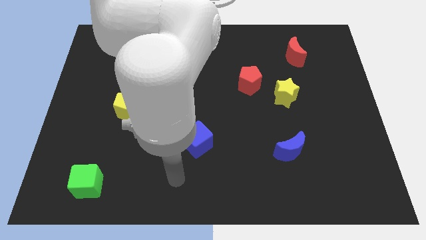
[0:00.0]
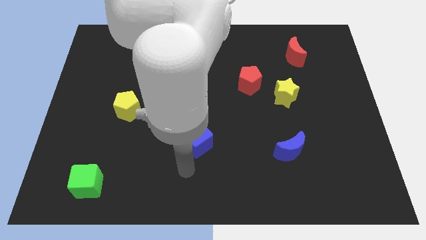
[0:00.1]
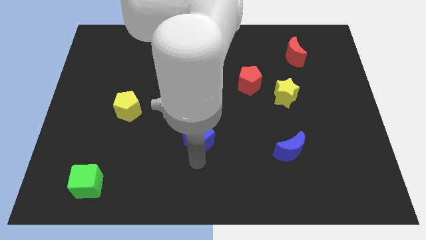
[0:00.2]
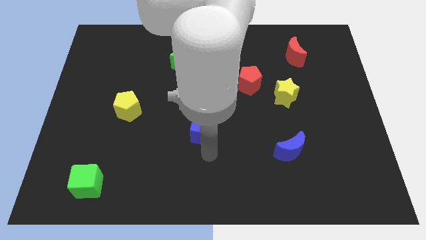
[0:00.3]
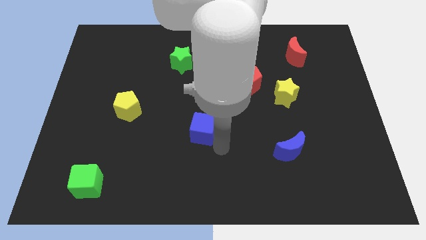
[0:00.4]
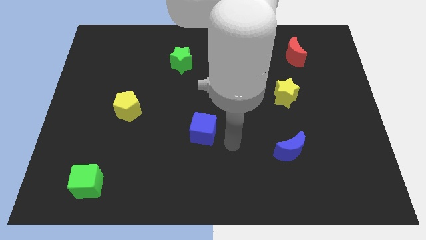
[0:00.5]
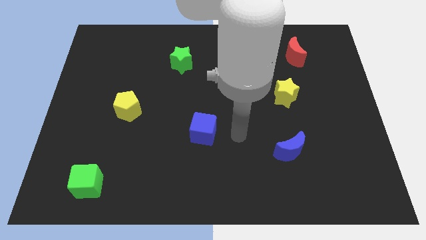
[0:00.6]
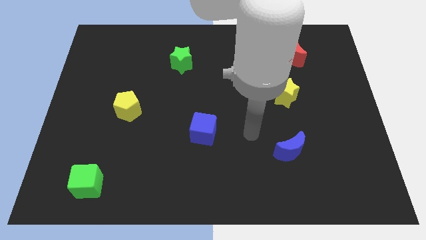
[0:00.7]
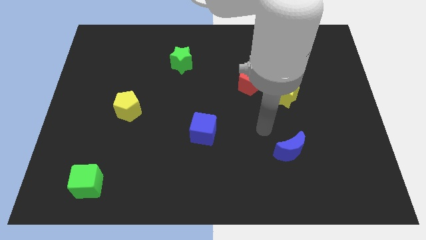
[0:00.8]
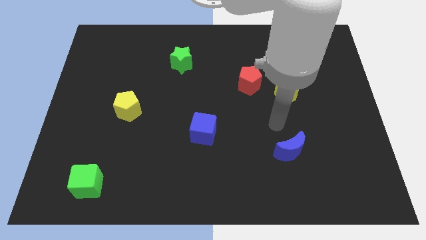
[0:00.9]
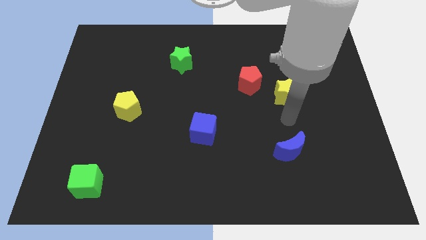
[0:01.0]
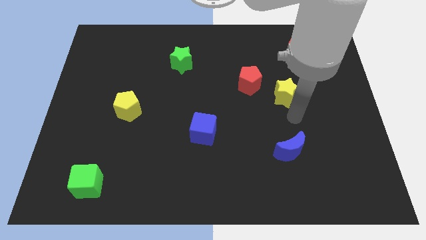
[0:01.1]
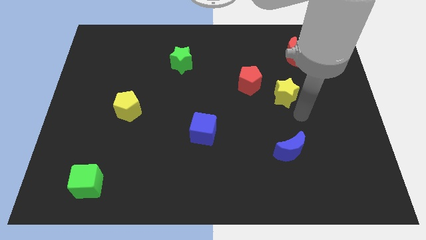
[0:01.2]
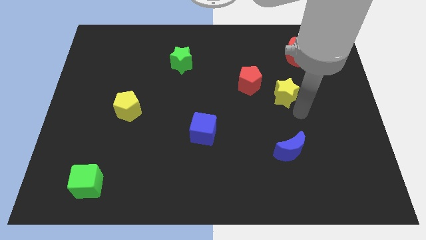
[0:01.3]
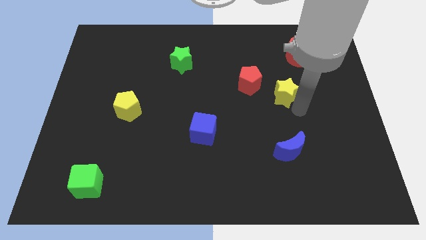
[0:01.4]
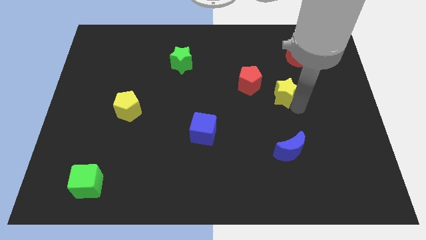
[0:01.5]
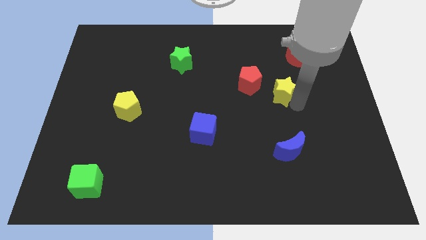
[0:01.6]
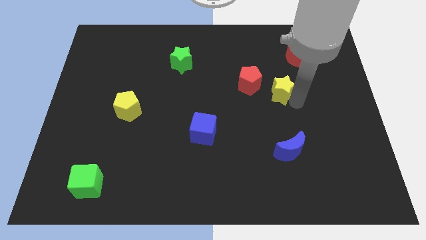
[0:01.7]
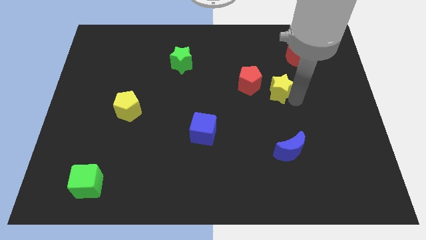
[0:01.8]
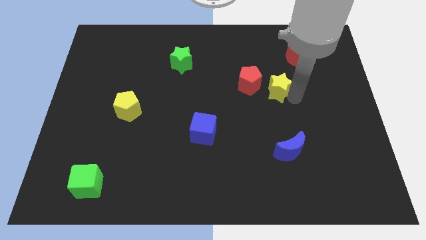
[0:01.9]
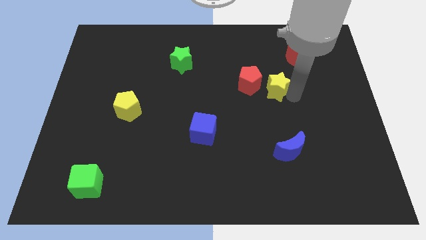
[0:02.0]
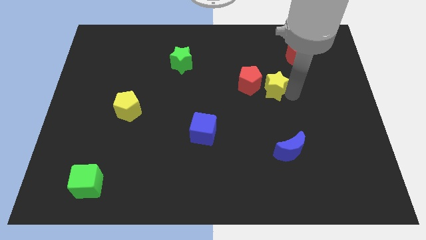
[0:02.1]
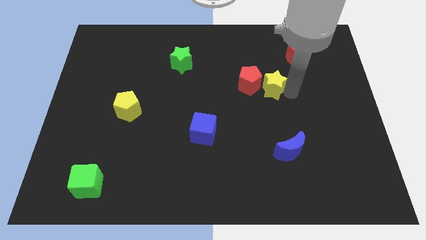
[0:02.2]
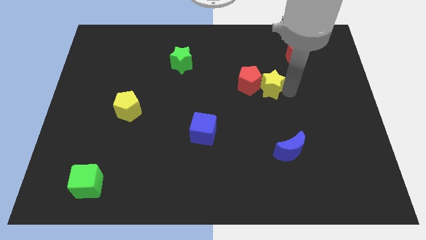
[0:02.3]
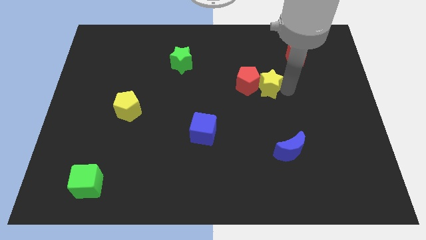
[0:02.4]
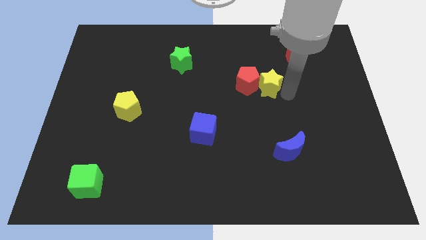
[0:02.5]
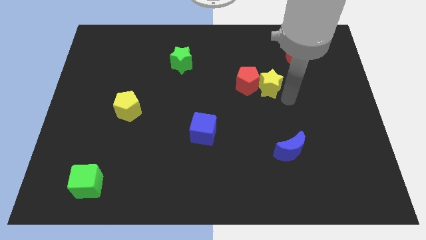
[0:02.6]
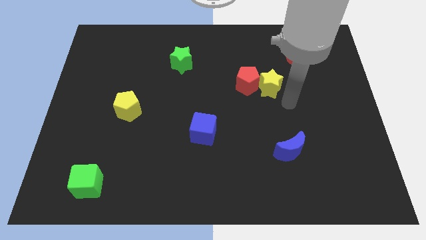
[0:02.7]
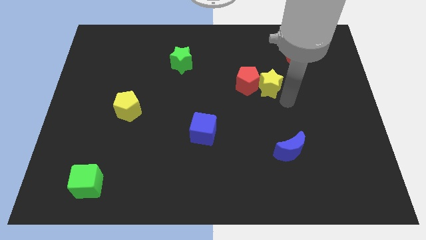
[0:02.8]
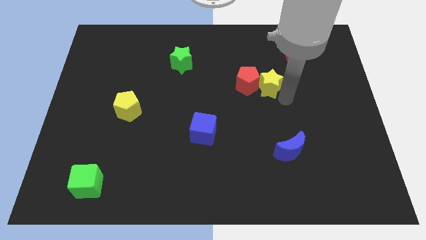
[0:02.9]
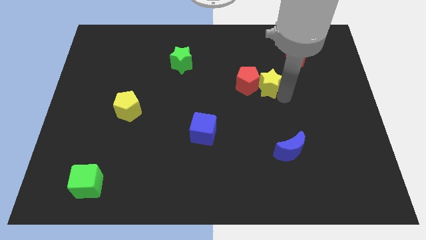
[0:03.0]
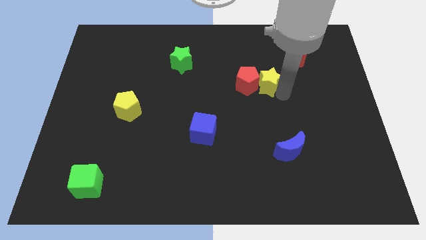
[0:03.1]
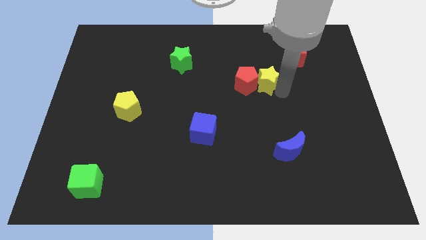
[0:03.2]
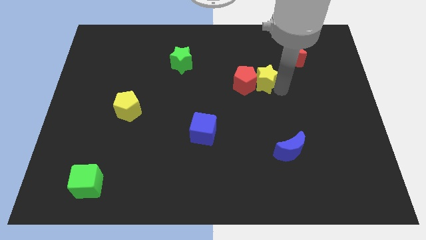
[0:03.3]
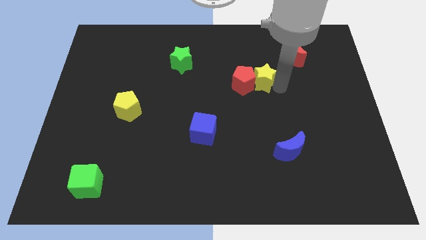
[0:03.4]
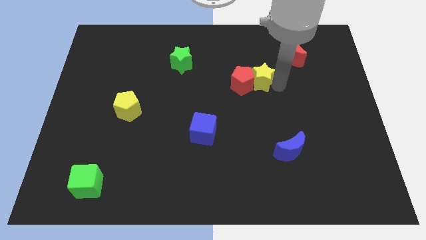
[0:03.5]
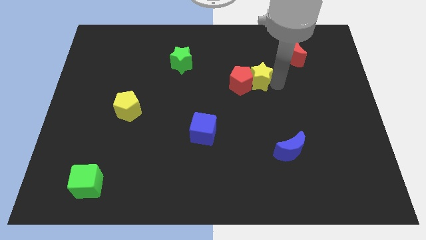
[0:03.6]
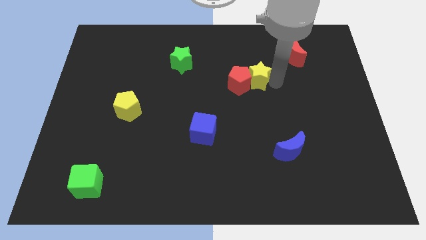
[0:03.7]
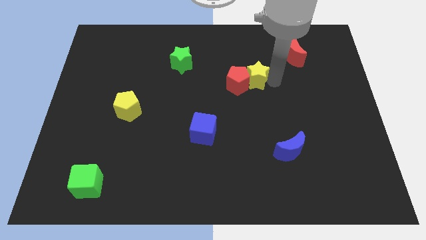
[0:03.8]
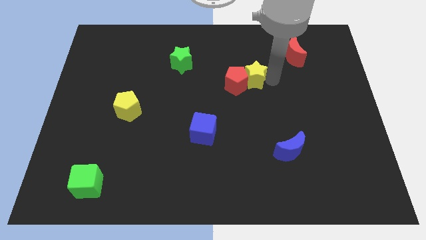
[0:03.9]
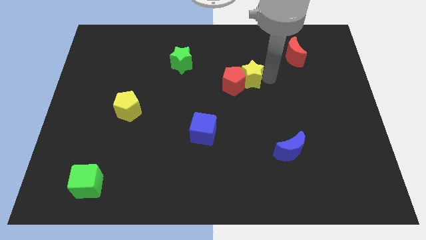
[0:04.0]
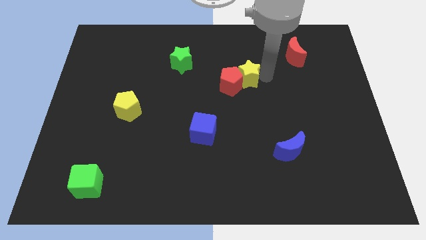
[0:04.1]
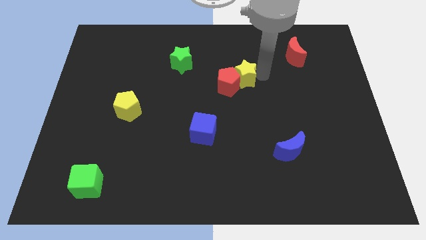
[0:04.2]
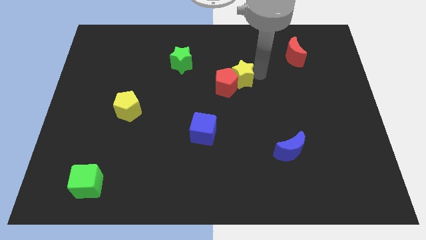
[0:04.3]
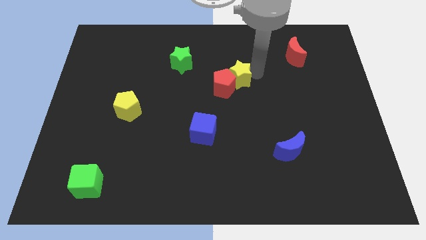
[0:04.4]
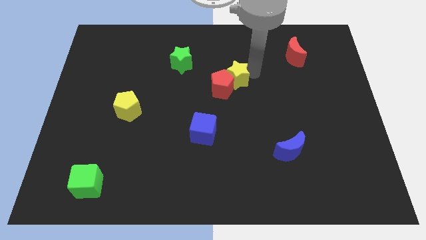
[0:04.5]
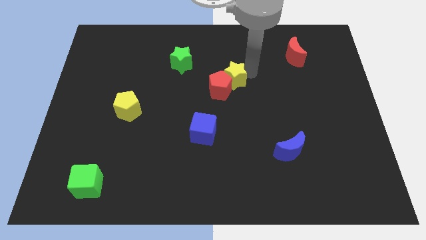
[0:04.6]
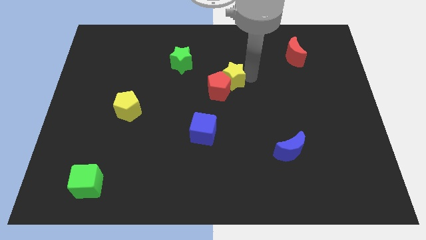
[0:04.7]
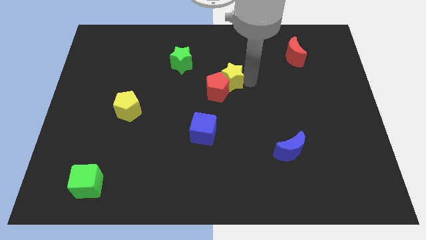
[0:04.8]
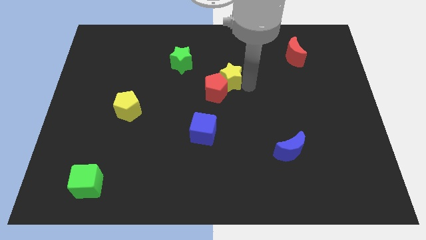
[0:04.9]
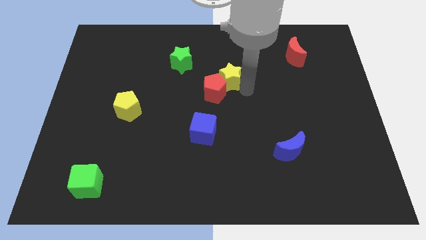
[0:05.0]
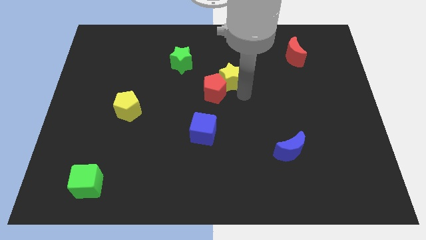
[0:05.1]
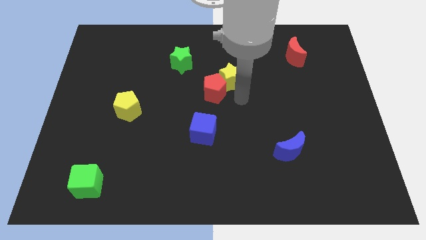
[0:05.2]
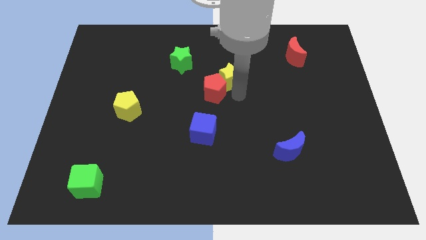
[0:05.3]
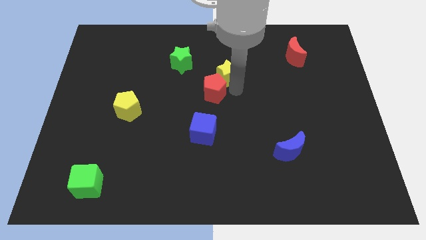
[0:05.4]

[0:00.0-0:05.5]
push the yellow star right of the green star
